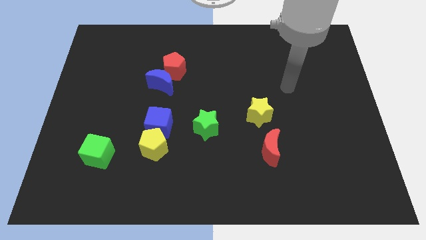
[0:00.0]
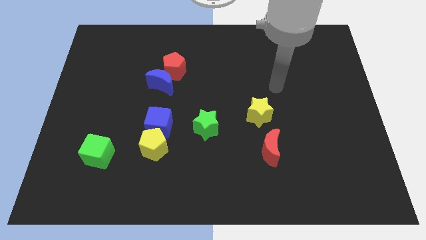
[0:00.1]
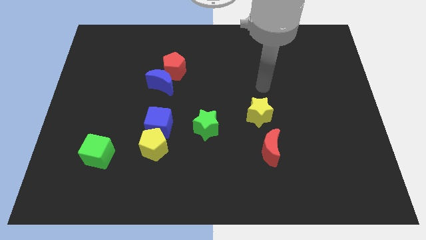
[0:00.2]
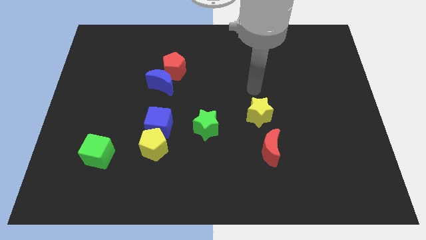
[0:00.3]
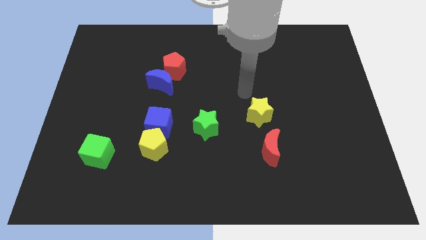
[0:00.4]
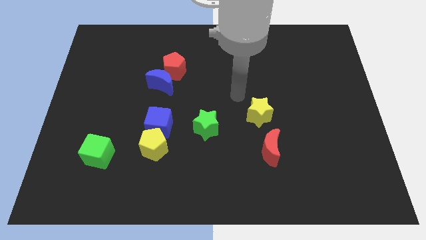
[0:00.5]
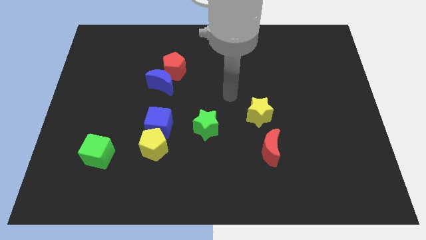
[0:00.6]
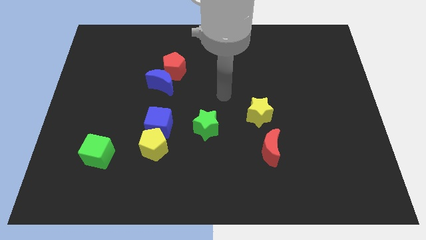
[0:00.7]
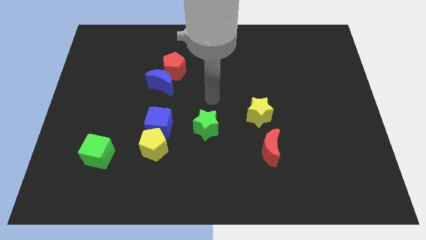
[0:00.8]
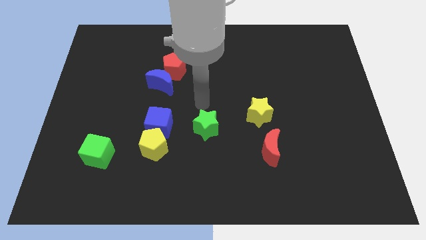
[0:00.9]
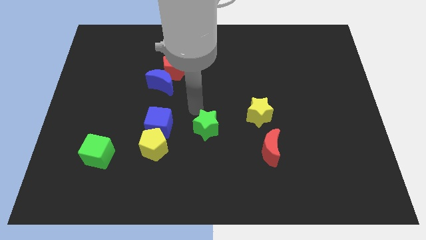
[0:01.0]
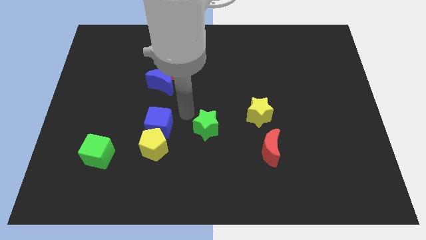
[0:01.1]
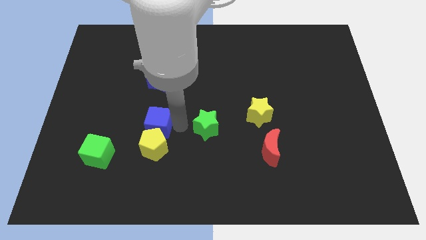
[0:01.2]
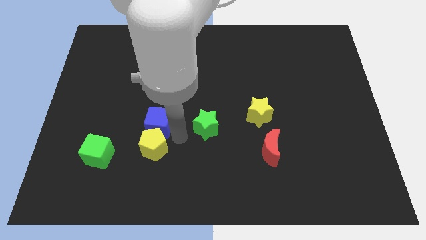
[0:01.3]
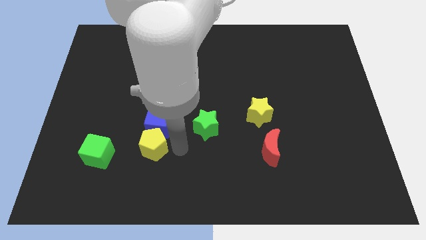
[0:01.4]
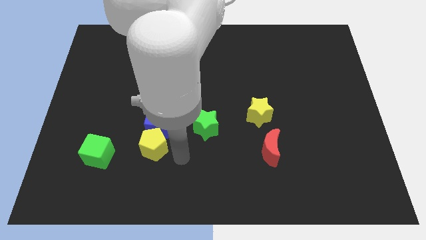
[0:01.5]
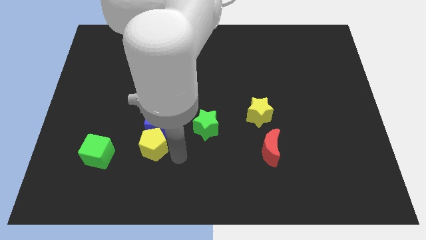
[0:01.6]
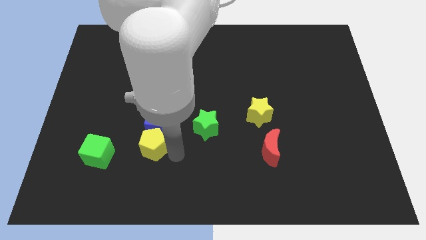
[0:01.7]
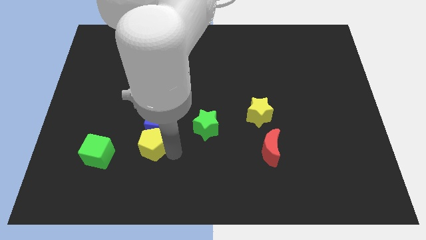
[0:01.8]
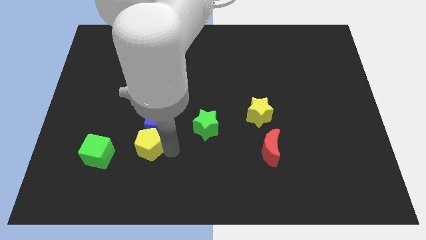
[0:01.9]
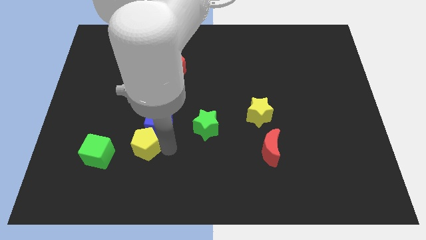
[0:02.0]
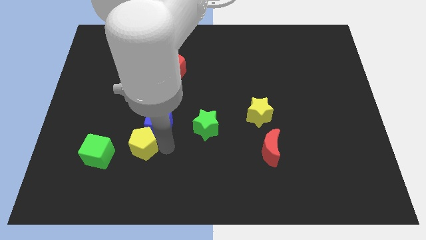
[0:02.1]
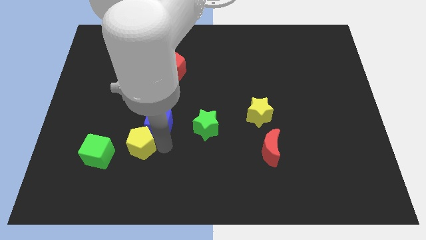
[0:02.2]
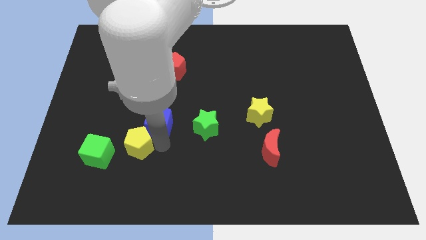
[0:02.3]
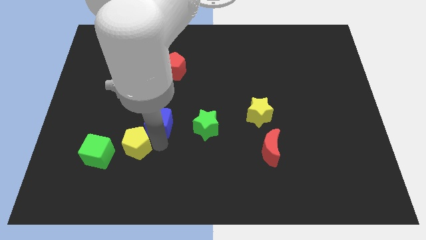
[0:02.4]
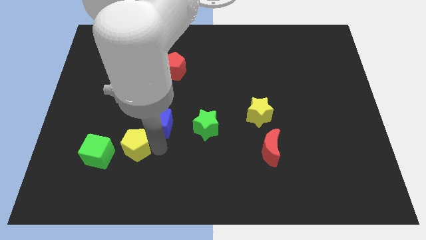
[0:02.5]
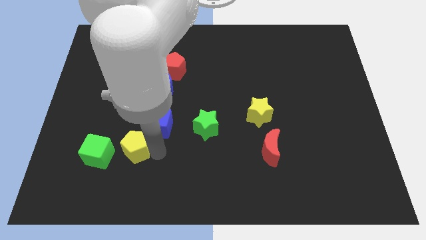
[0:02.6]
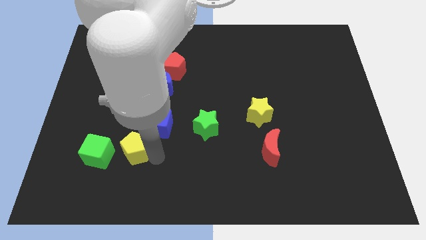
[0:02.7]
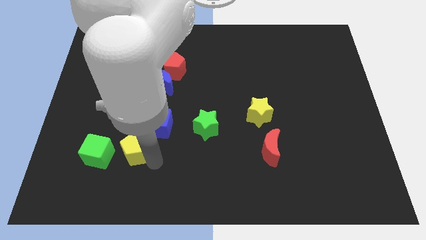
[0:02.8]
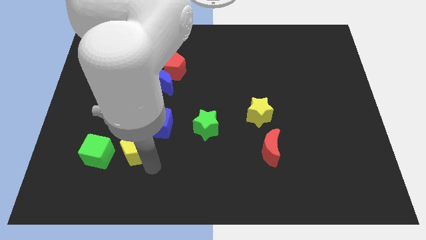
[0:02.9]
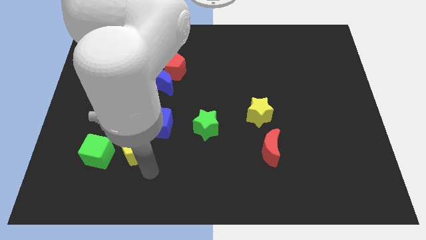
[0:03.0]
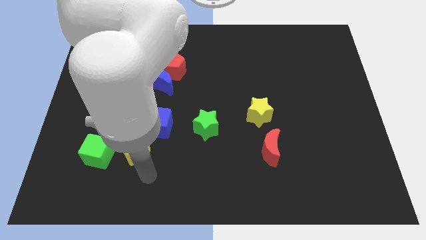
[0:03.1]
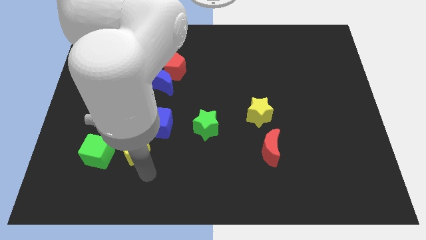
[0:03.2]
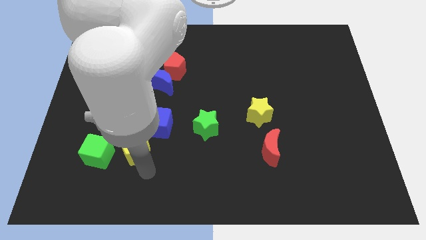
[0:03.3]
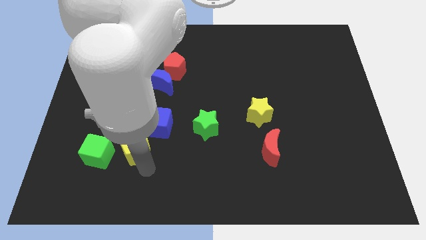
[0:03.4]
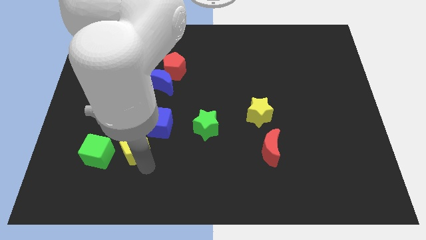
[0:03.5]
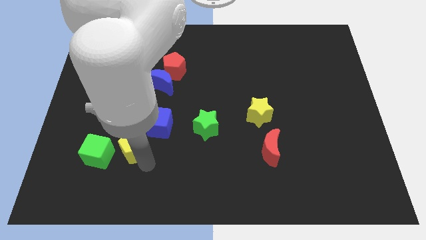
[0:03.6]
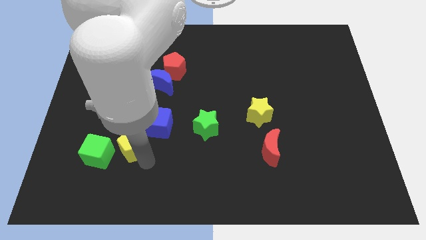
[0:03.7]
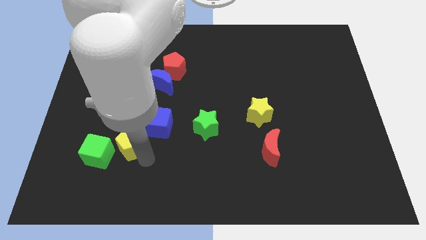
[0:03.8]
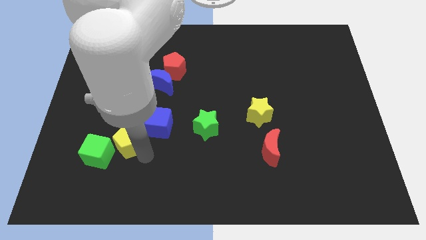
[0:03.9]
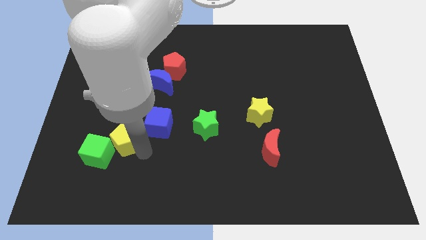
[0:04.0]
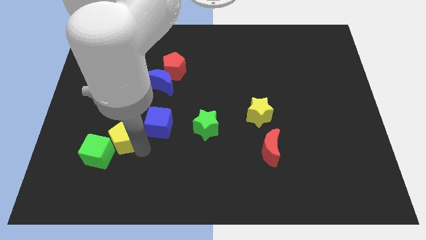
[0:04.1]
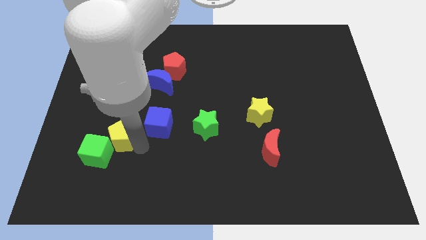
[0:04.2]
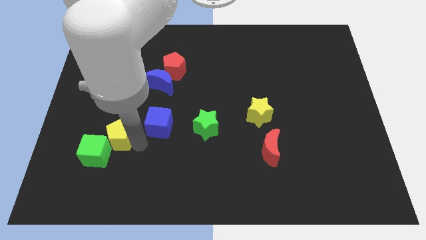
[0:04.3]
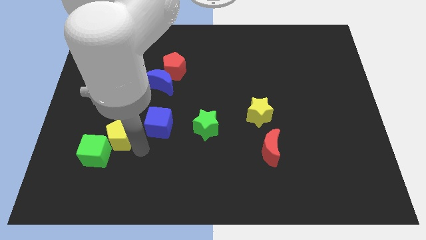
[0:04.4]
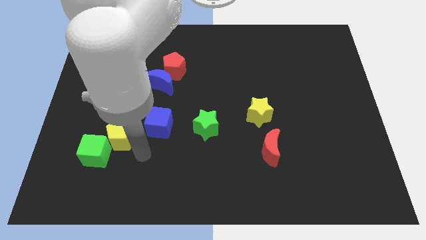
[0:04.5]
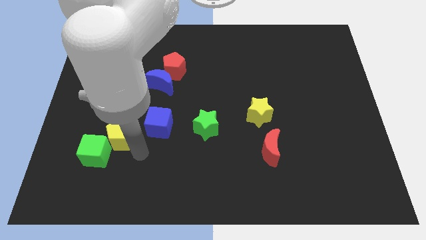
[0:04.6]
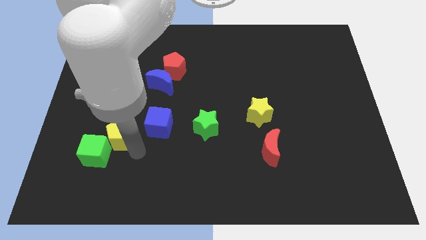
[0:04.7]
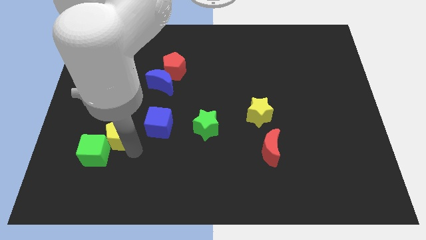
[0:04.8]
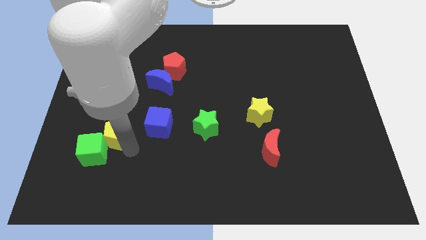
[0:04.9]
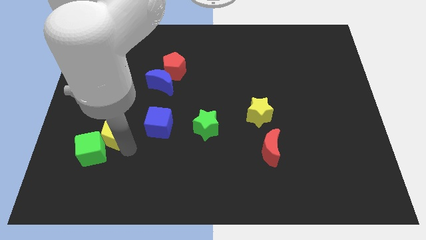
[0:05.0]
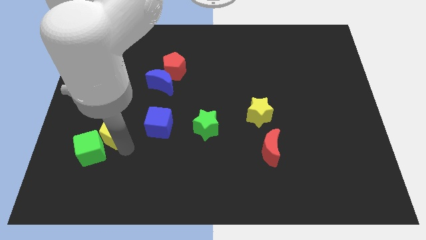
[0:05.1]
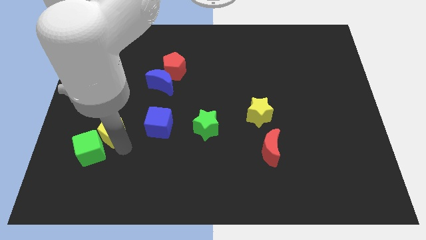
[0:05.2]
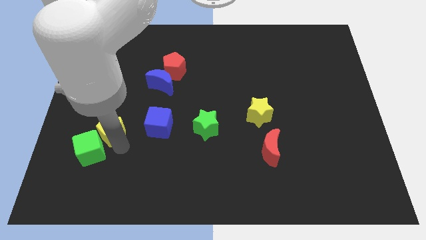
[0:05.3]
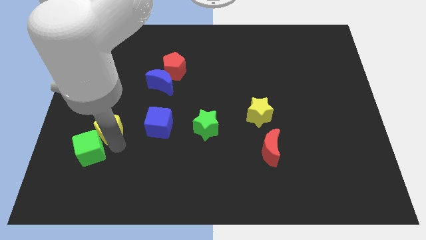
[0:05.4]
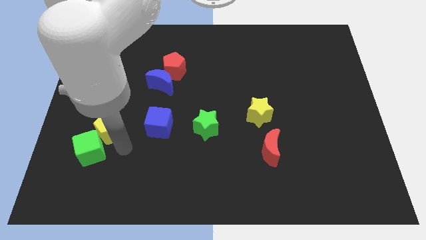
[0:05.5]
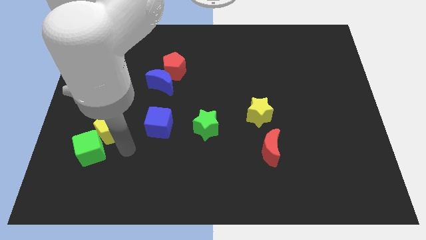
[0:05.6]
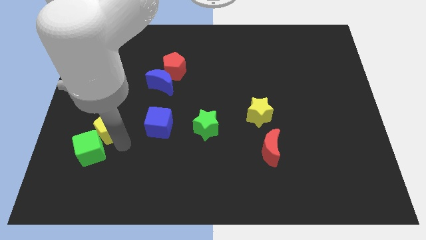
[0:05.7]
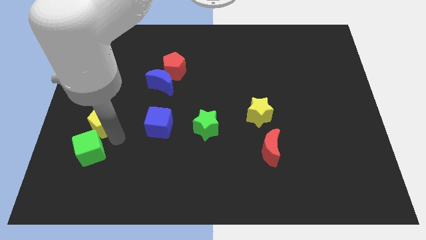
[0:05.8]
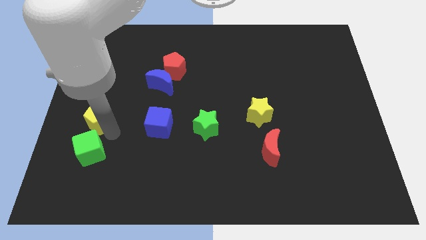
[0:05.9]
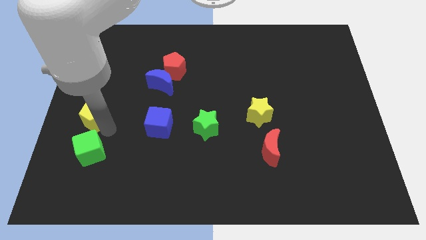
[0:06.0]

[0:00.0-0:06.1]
move the yellow pentagon to the left side
